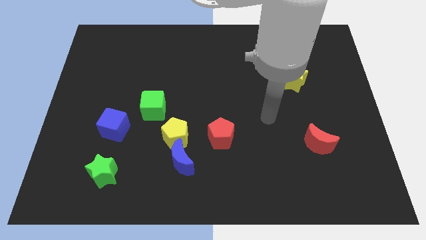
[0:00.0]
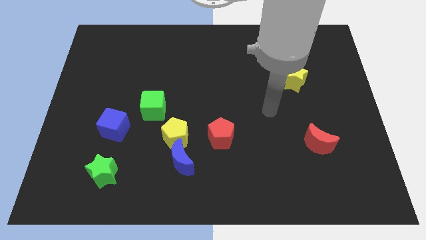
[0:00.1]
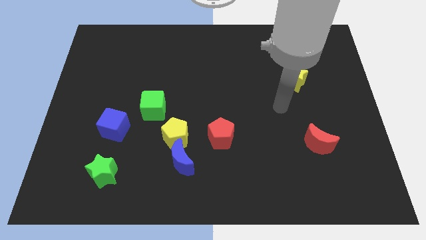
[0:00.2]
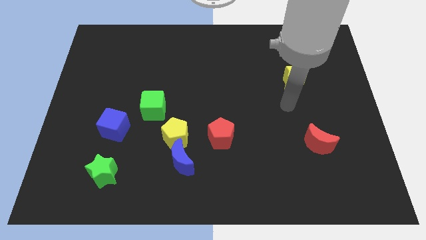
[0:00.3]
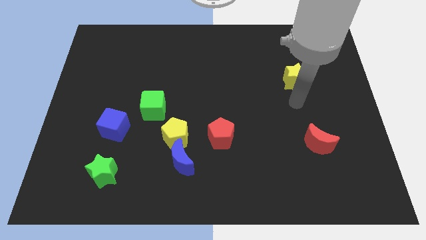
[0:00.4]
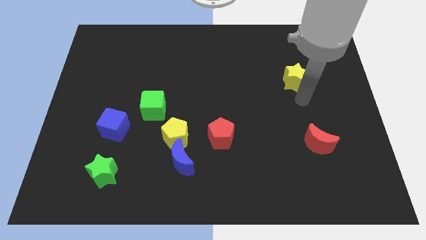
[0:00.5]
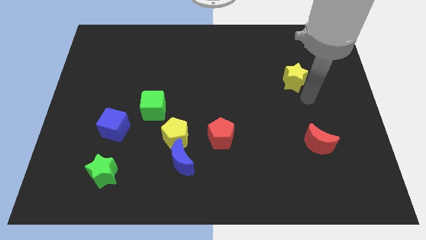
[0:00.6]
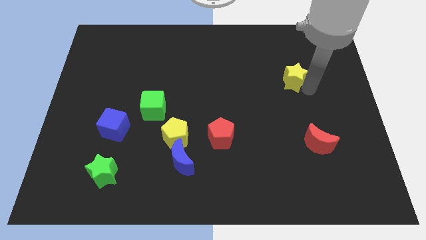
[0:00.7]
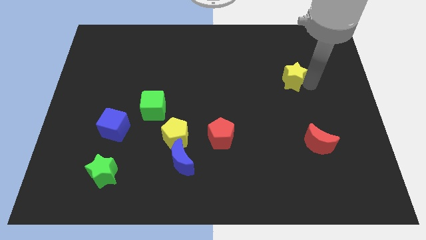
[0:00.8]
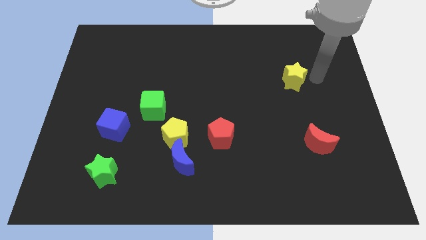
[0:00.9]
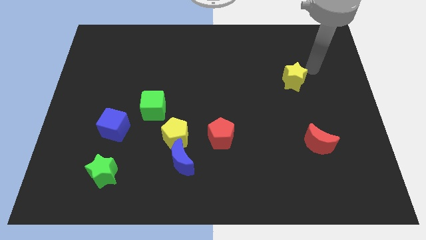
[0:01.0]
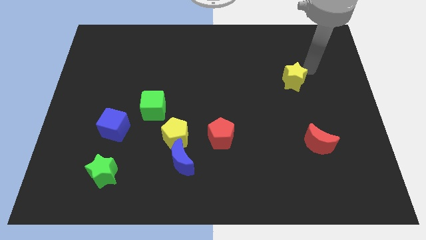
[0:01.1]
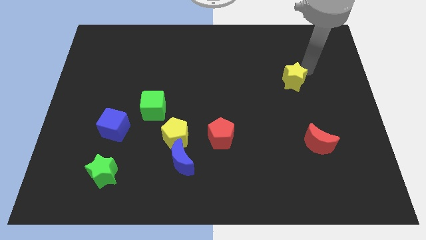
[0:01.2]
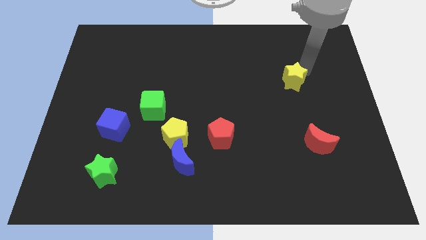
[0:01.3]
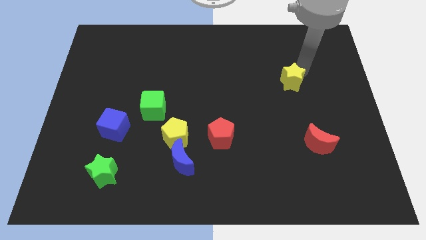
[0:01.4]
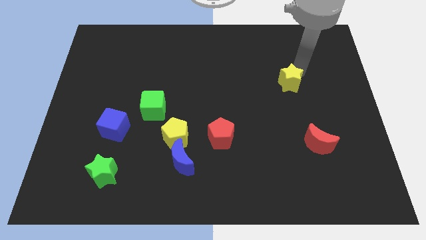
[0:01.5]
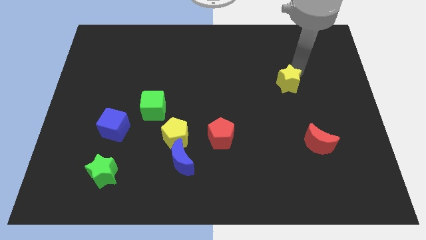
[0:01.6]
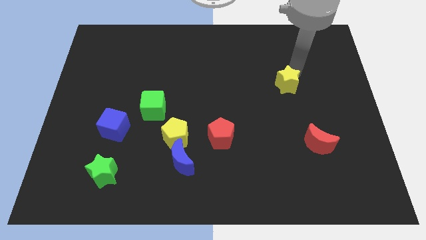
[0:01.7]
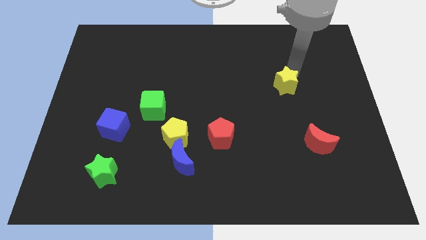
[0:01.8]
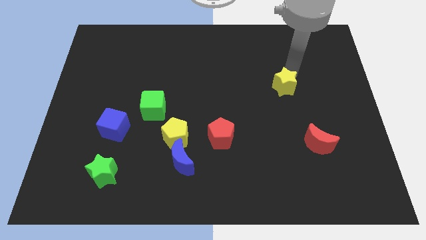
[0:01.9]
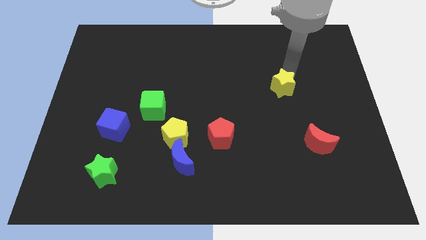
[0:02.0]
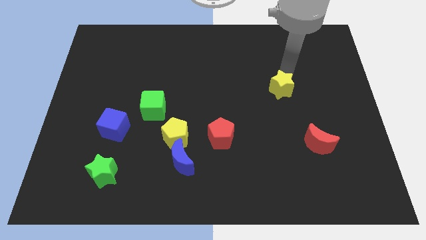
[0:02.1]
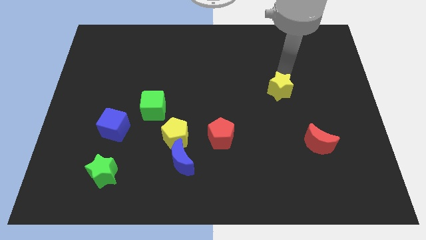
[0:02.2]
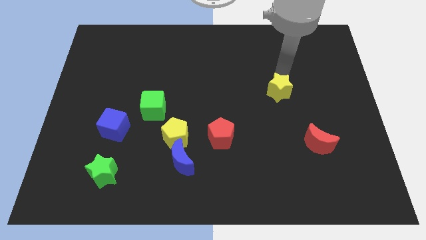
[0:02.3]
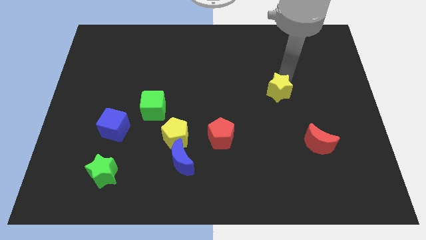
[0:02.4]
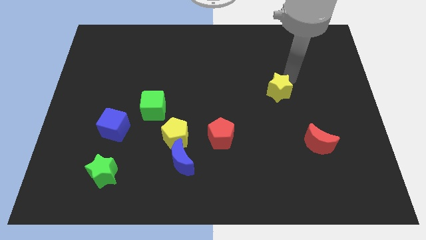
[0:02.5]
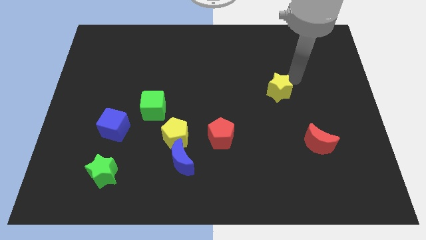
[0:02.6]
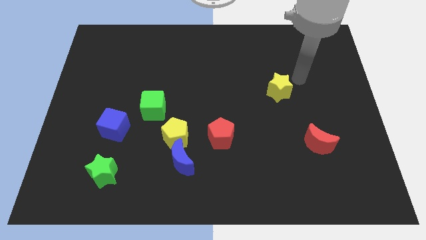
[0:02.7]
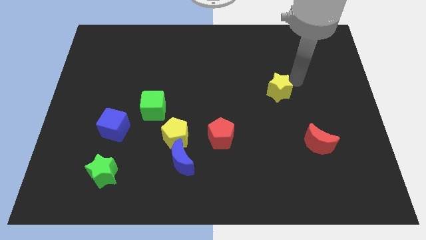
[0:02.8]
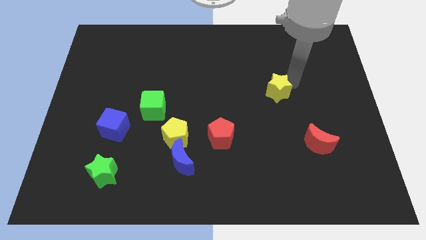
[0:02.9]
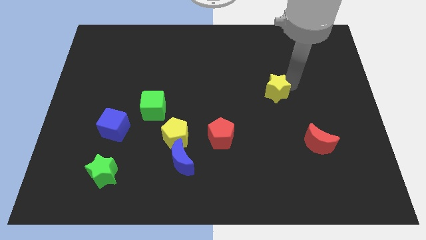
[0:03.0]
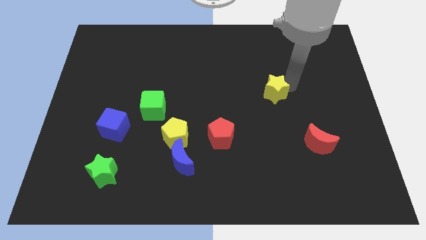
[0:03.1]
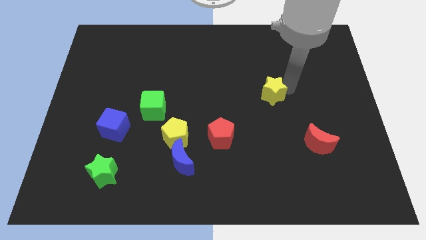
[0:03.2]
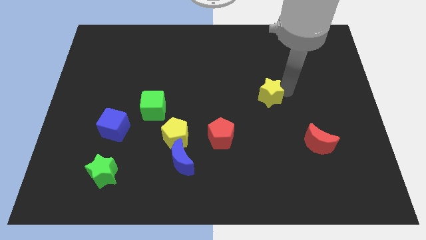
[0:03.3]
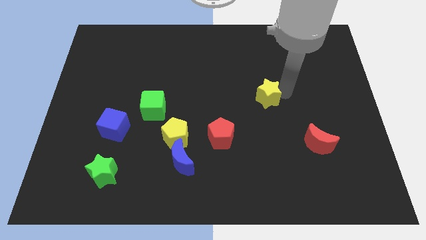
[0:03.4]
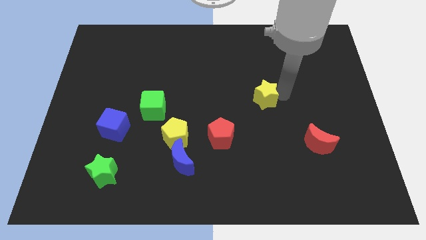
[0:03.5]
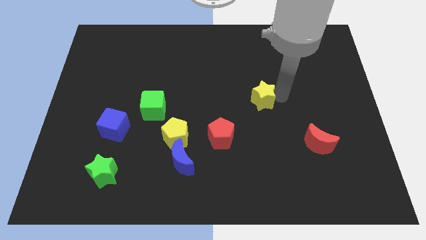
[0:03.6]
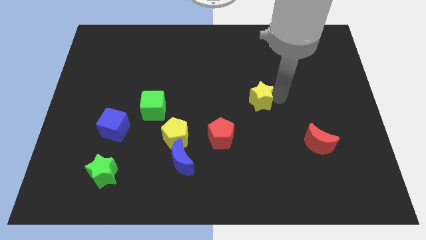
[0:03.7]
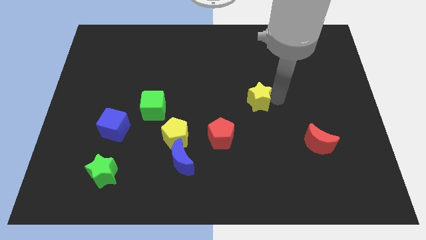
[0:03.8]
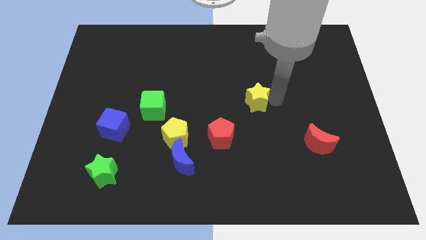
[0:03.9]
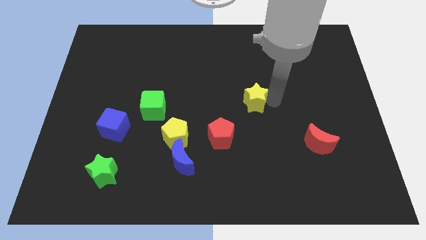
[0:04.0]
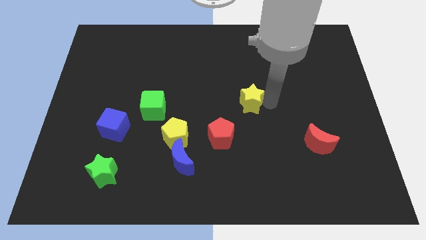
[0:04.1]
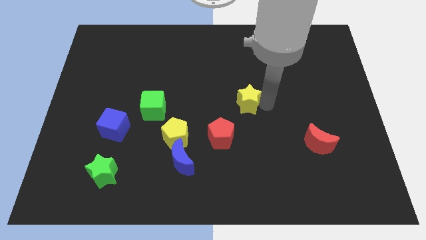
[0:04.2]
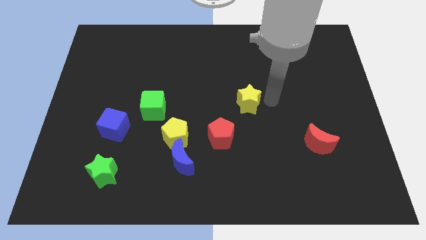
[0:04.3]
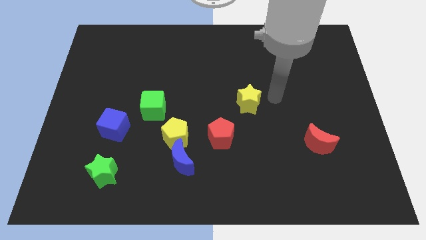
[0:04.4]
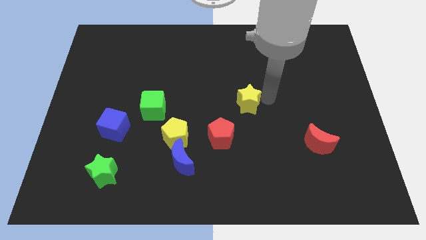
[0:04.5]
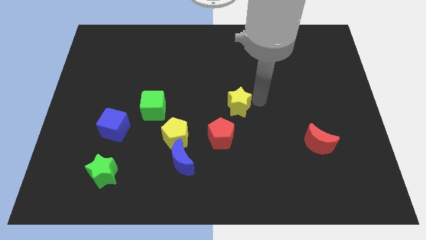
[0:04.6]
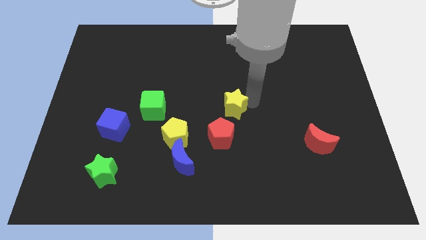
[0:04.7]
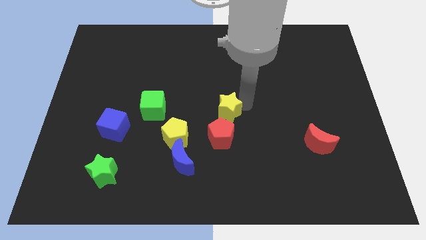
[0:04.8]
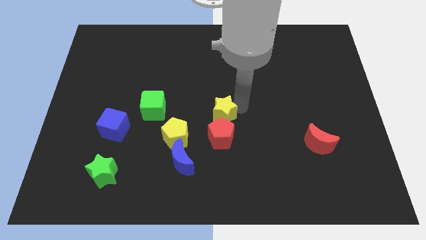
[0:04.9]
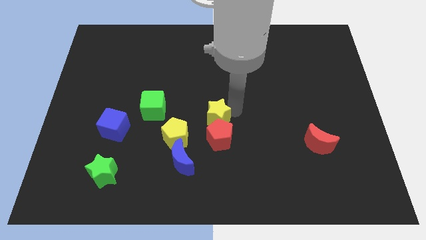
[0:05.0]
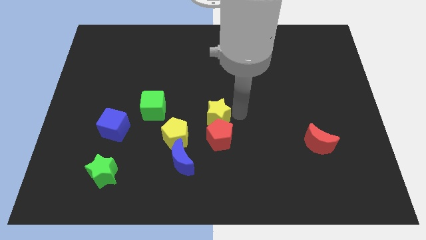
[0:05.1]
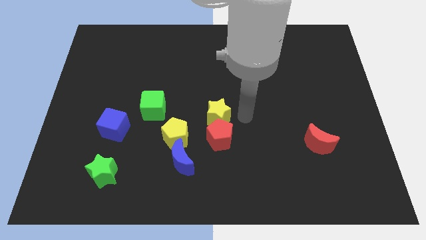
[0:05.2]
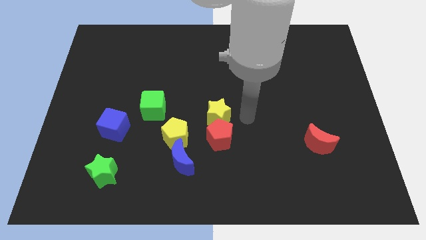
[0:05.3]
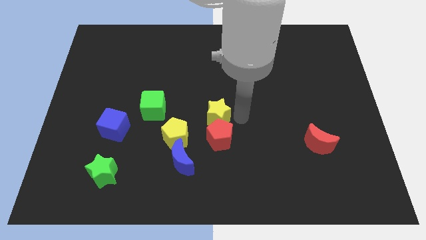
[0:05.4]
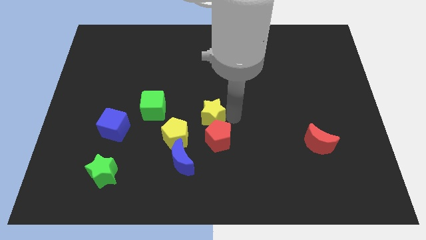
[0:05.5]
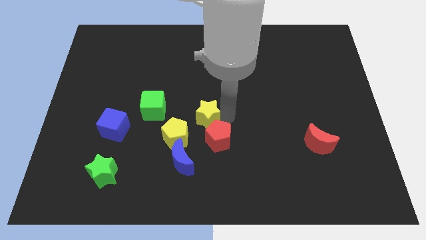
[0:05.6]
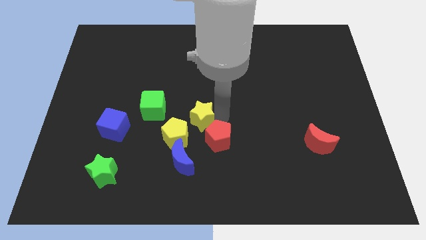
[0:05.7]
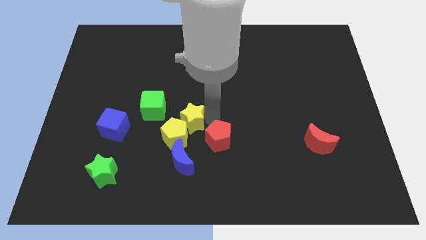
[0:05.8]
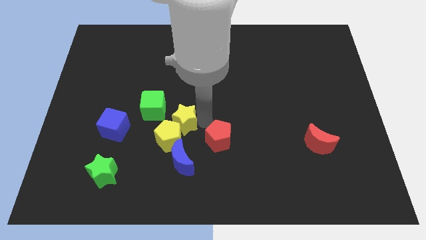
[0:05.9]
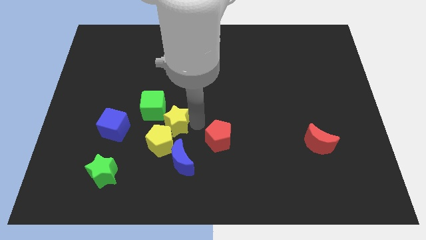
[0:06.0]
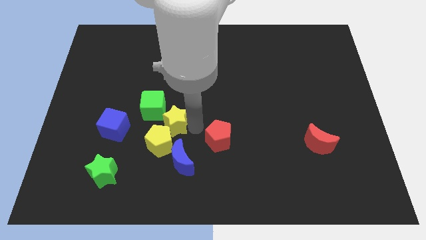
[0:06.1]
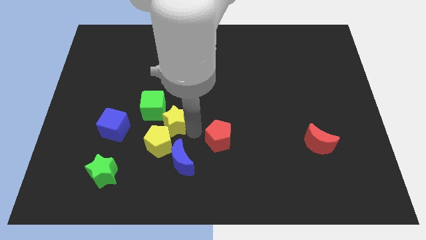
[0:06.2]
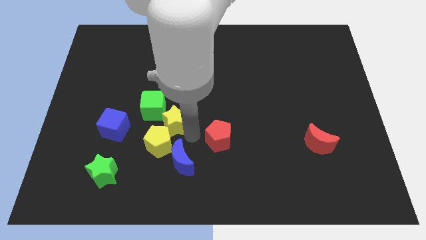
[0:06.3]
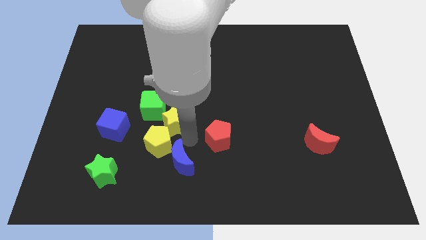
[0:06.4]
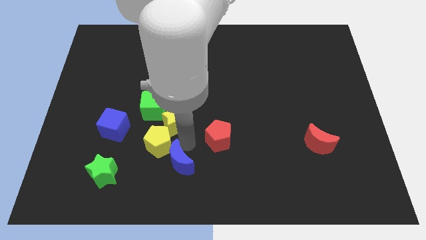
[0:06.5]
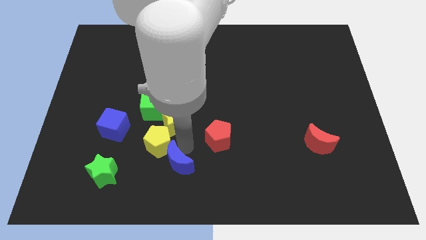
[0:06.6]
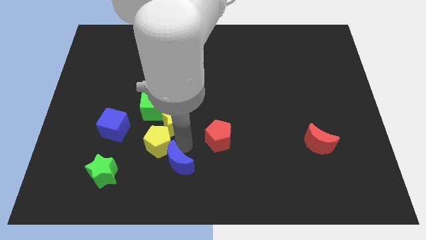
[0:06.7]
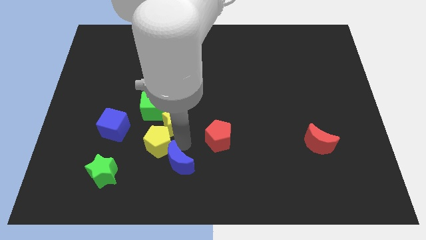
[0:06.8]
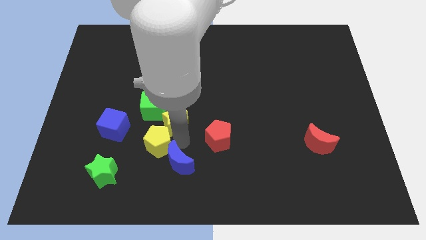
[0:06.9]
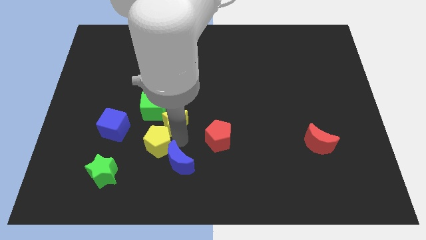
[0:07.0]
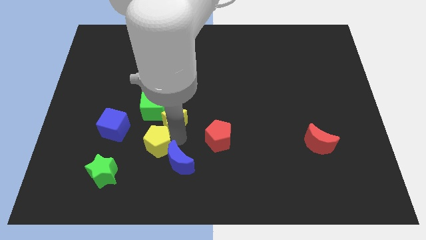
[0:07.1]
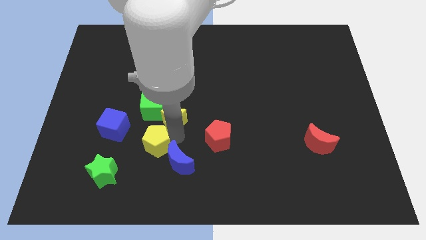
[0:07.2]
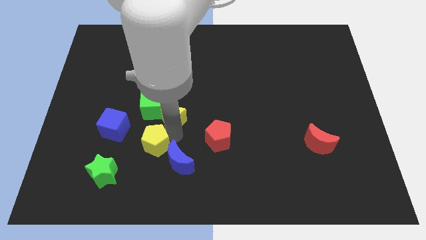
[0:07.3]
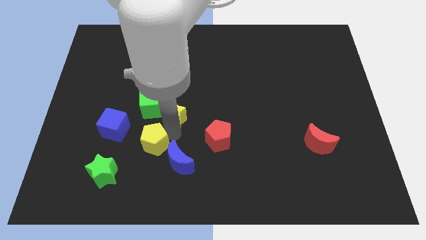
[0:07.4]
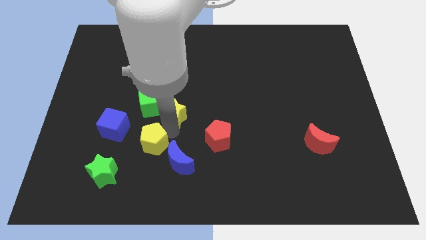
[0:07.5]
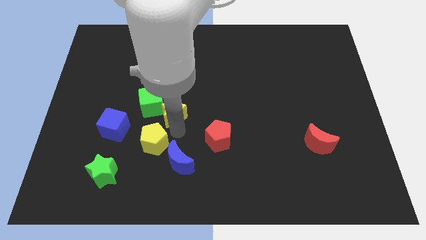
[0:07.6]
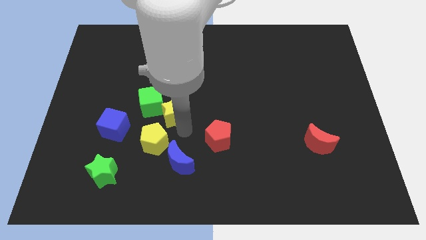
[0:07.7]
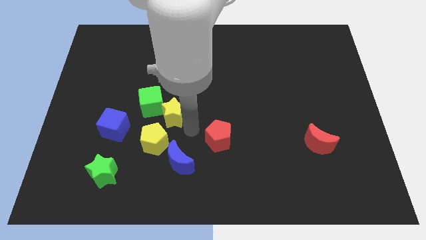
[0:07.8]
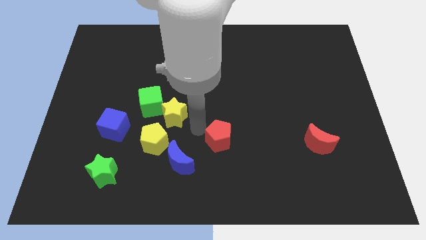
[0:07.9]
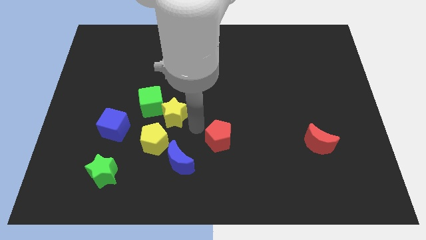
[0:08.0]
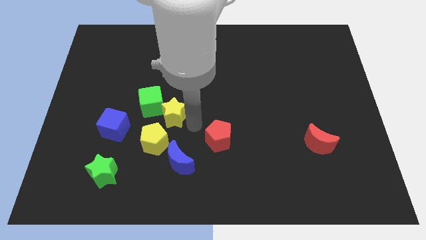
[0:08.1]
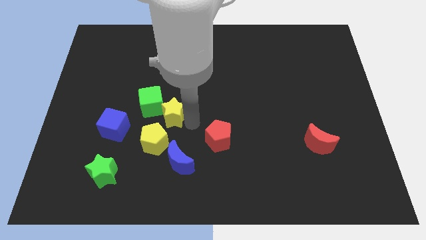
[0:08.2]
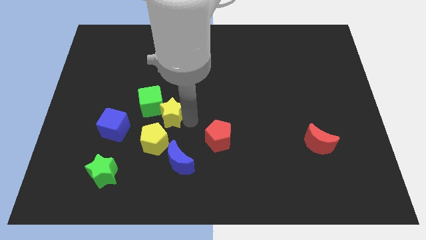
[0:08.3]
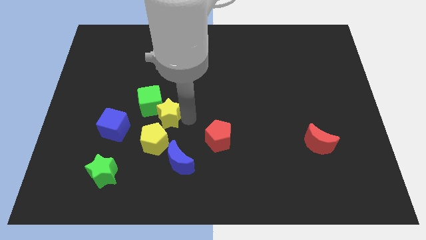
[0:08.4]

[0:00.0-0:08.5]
slide the yellow star to the green cube
